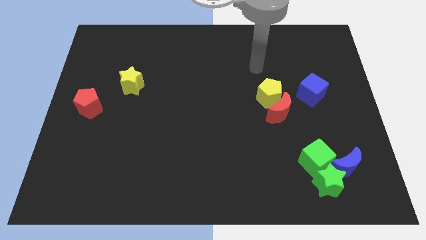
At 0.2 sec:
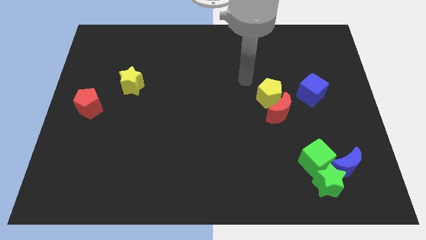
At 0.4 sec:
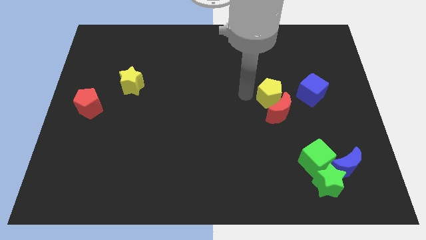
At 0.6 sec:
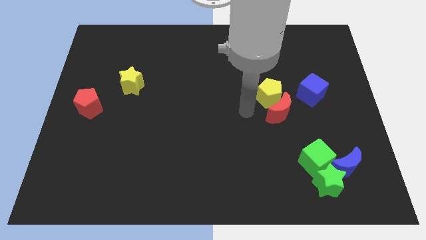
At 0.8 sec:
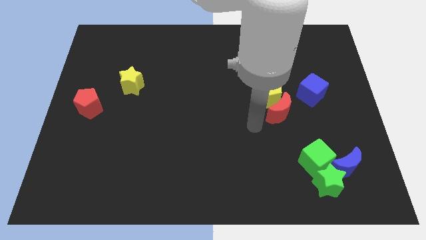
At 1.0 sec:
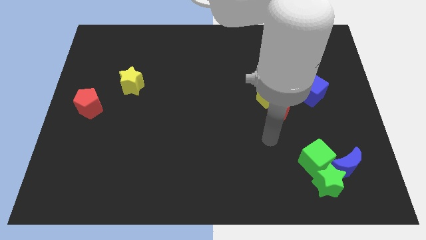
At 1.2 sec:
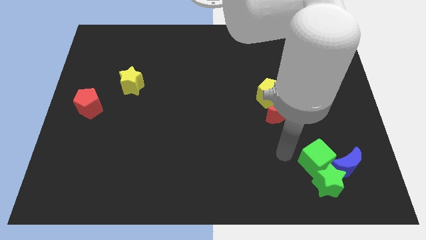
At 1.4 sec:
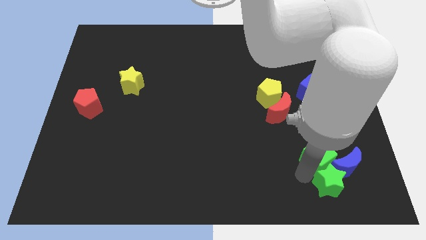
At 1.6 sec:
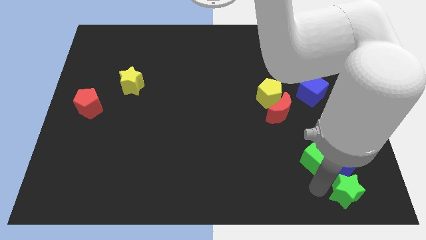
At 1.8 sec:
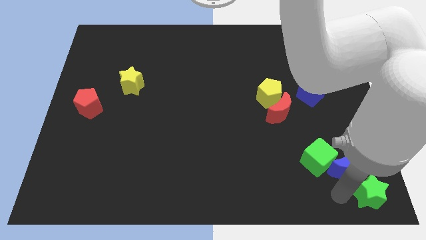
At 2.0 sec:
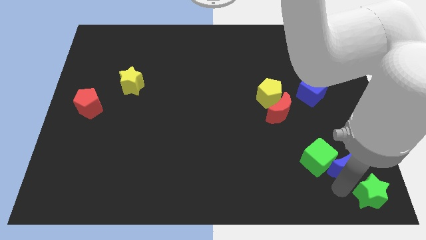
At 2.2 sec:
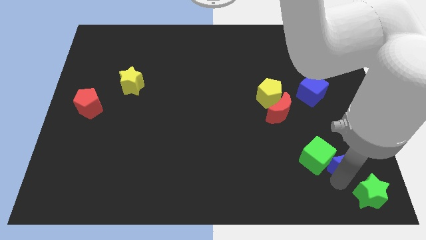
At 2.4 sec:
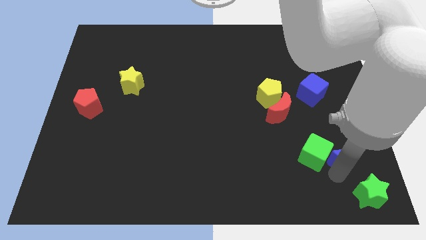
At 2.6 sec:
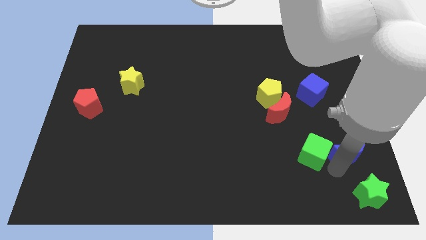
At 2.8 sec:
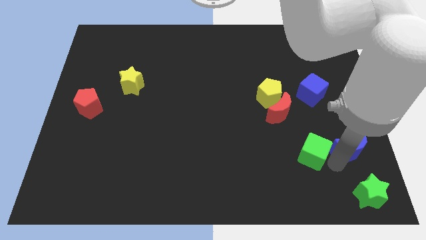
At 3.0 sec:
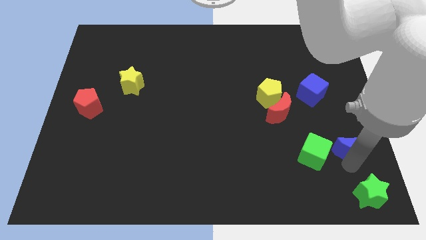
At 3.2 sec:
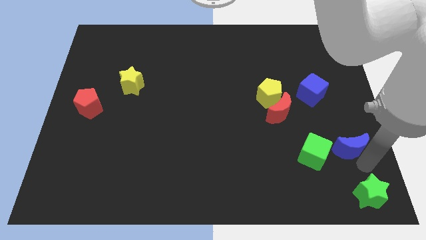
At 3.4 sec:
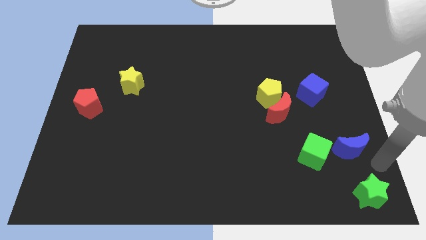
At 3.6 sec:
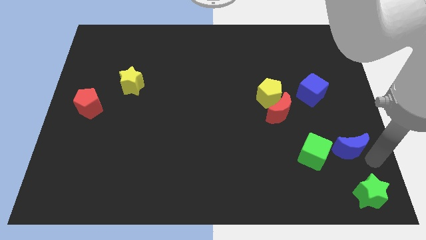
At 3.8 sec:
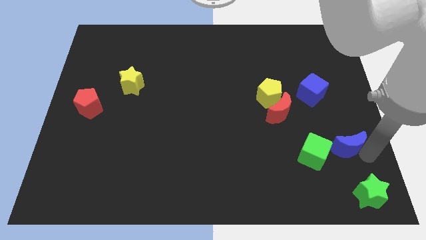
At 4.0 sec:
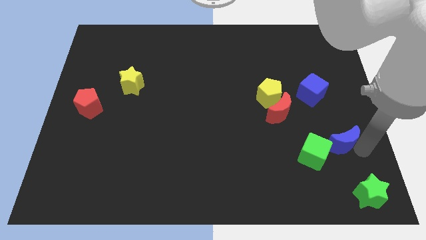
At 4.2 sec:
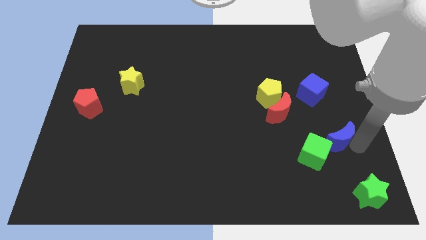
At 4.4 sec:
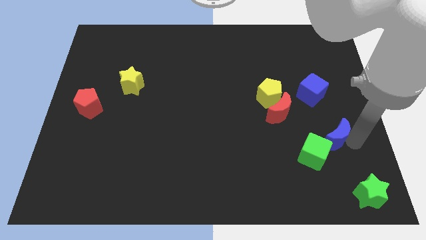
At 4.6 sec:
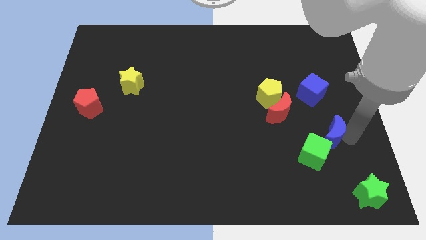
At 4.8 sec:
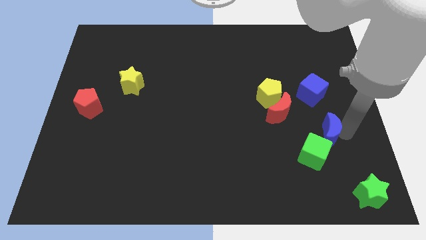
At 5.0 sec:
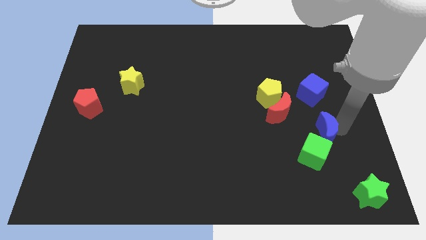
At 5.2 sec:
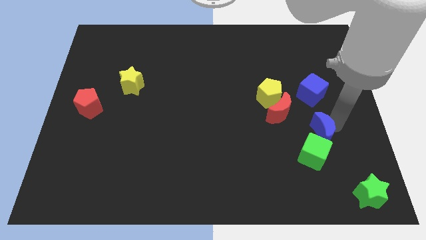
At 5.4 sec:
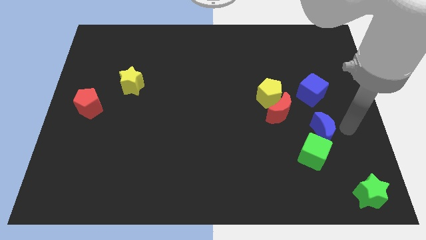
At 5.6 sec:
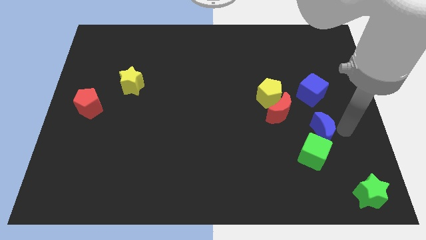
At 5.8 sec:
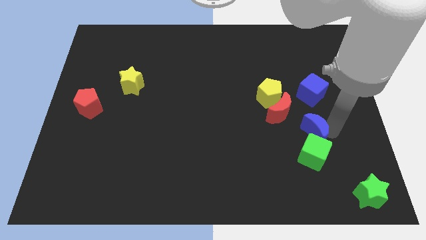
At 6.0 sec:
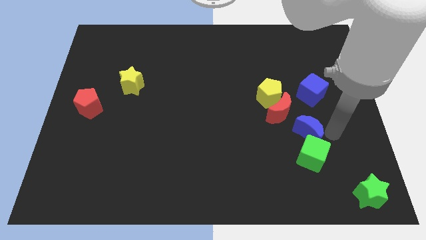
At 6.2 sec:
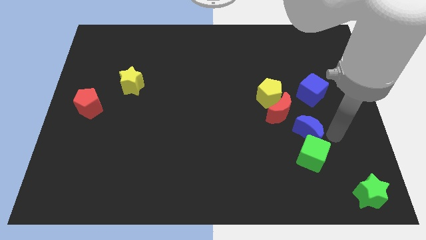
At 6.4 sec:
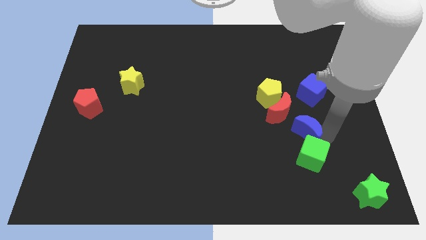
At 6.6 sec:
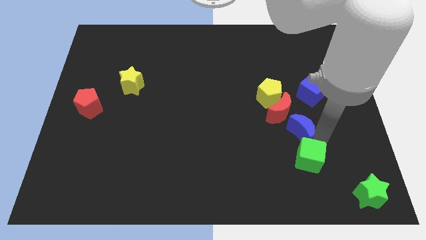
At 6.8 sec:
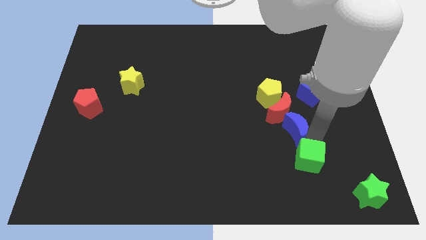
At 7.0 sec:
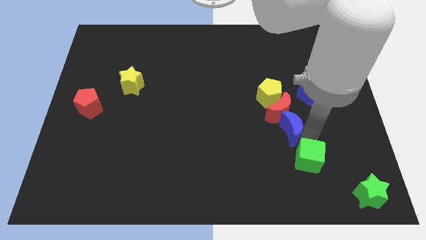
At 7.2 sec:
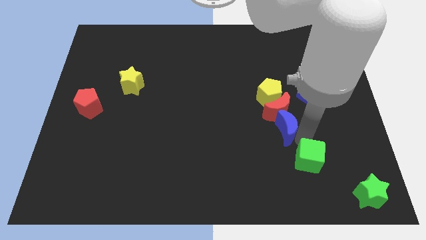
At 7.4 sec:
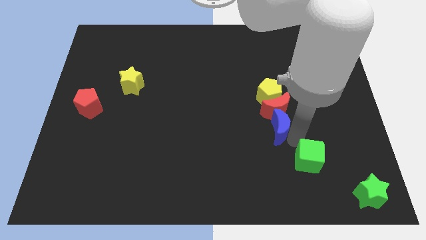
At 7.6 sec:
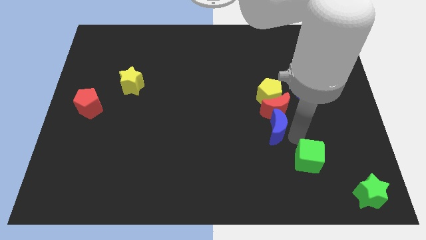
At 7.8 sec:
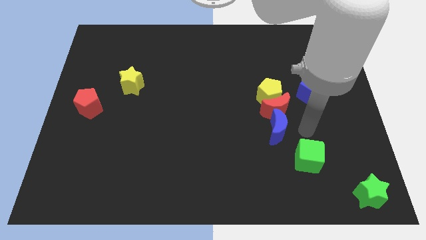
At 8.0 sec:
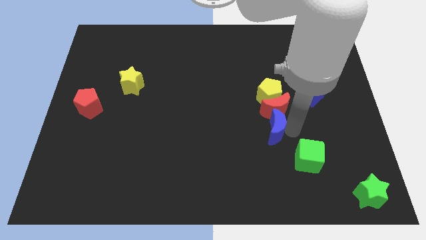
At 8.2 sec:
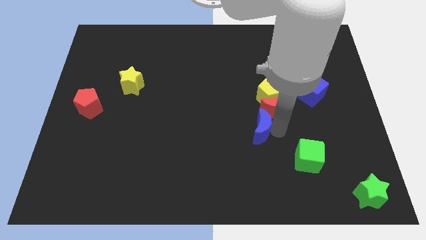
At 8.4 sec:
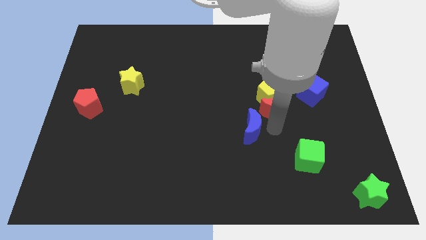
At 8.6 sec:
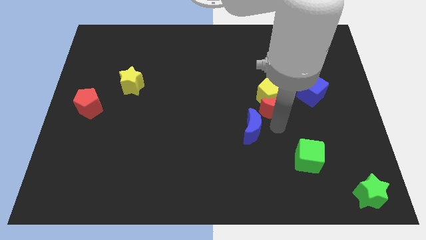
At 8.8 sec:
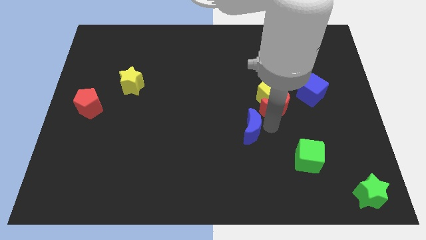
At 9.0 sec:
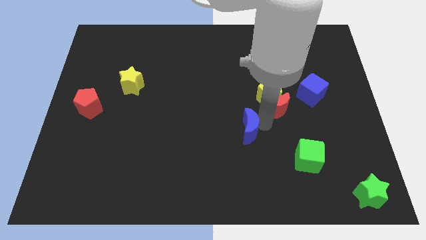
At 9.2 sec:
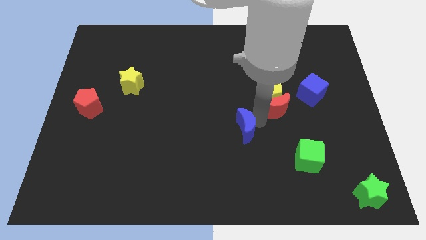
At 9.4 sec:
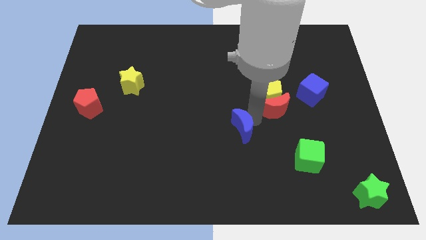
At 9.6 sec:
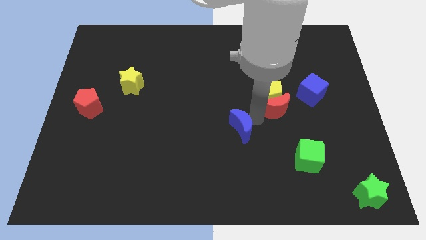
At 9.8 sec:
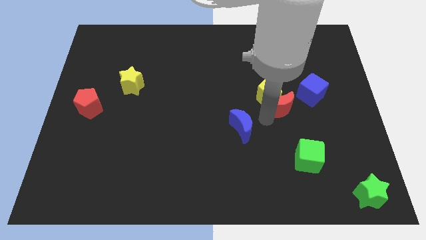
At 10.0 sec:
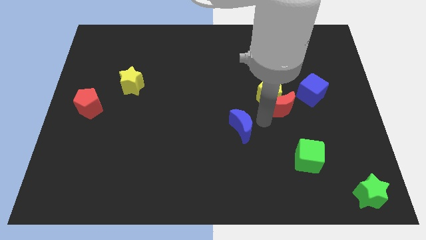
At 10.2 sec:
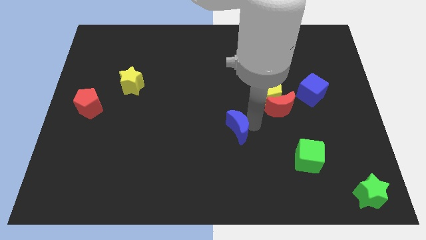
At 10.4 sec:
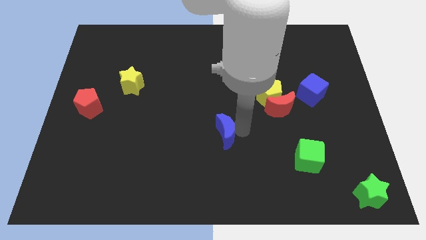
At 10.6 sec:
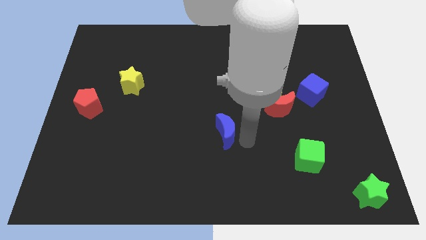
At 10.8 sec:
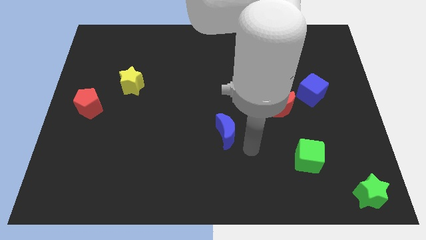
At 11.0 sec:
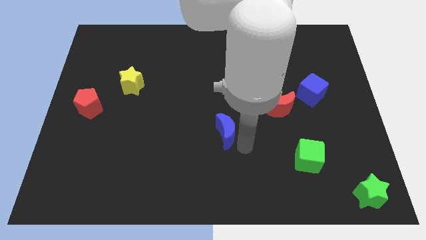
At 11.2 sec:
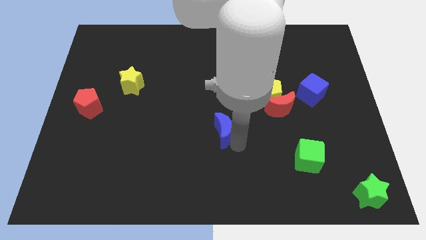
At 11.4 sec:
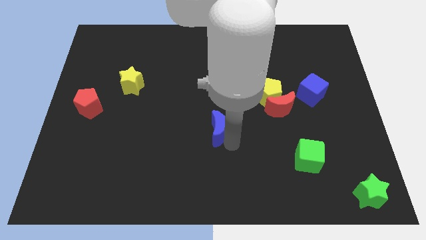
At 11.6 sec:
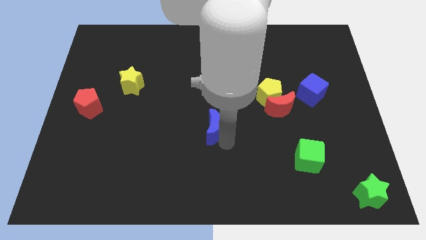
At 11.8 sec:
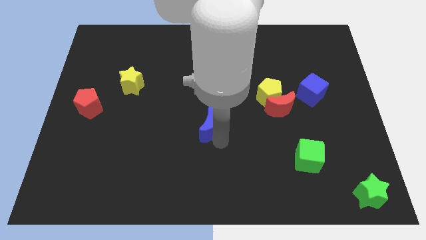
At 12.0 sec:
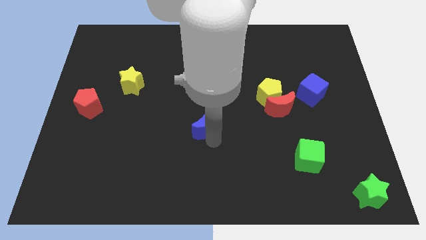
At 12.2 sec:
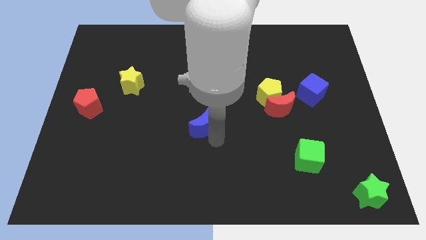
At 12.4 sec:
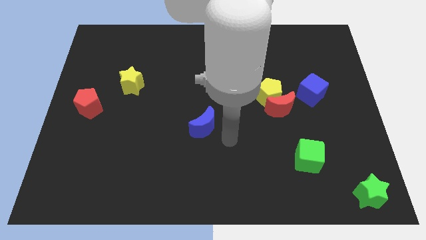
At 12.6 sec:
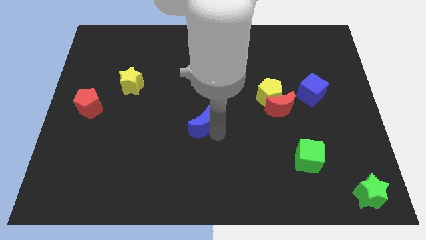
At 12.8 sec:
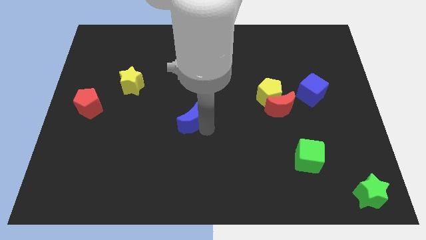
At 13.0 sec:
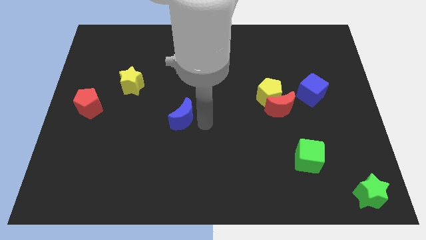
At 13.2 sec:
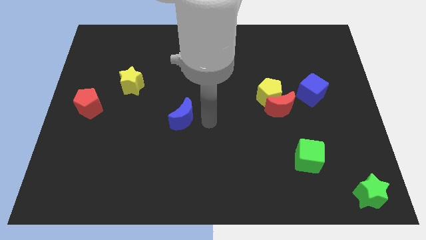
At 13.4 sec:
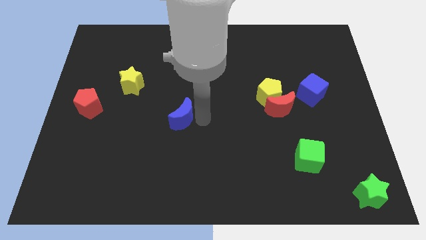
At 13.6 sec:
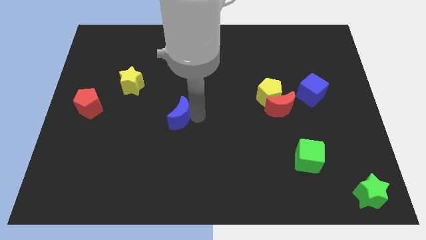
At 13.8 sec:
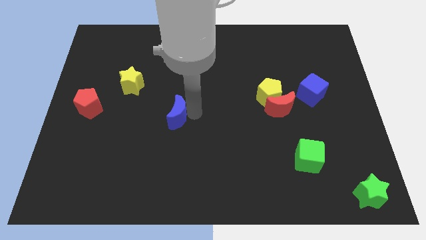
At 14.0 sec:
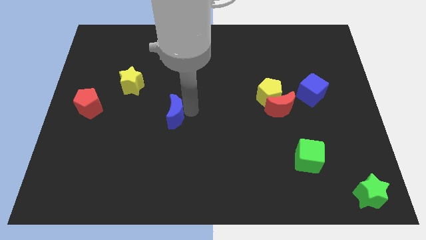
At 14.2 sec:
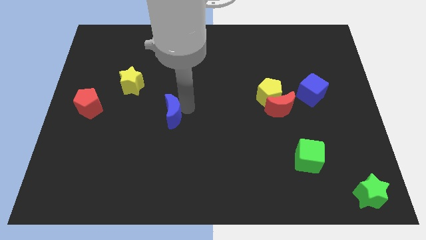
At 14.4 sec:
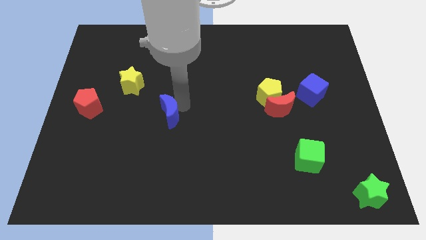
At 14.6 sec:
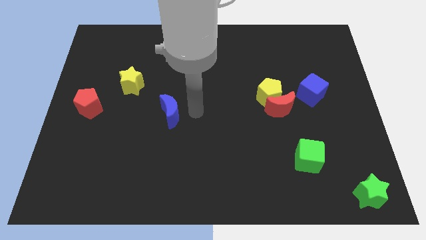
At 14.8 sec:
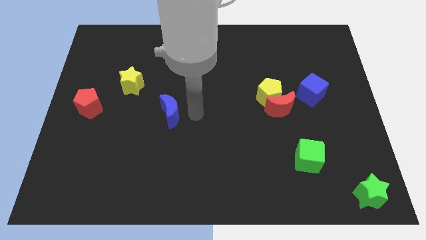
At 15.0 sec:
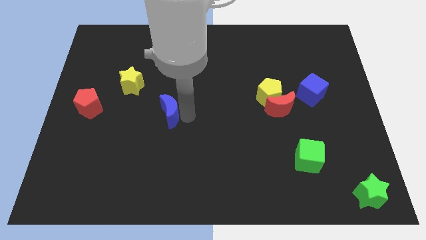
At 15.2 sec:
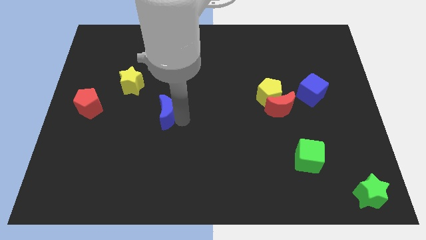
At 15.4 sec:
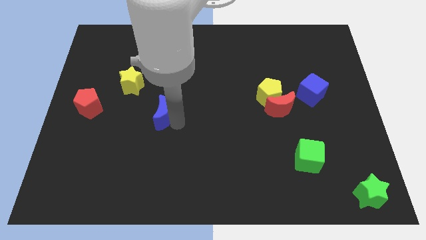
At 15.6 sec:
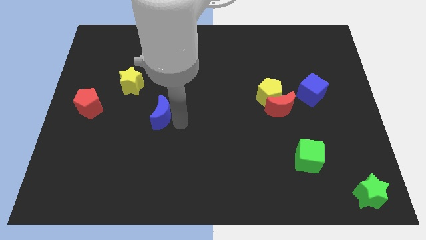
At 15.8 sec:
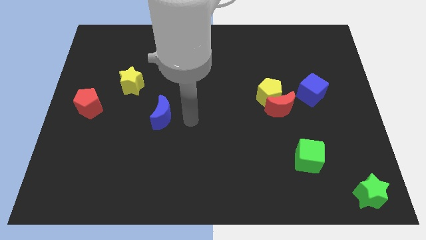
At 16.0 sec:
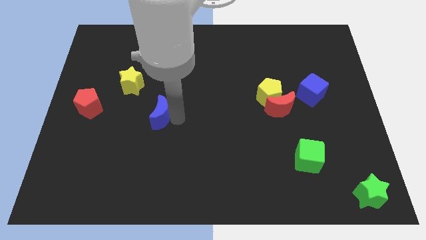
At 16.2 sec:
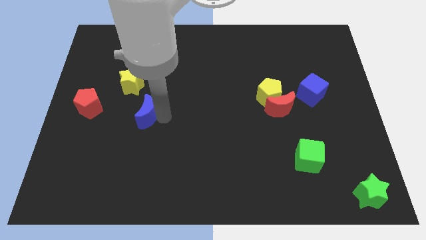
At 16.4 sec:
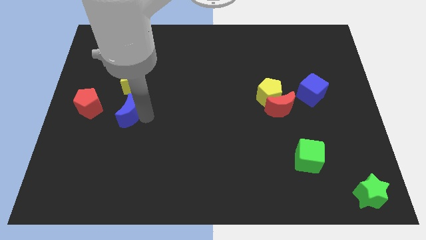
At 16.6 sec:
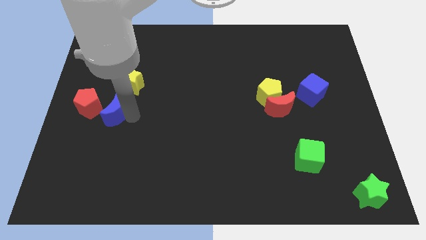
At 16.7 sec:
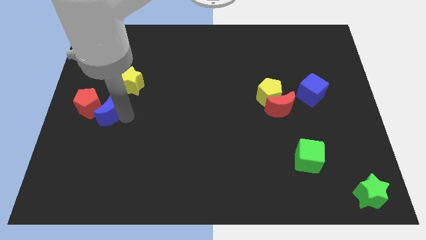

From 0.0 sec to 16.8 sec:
put the blue moon next to the red pentagon
